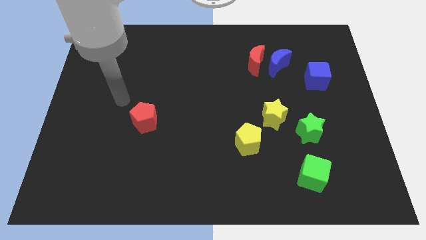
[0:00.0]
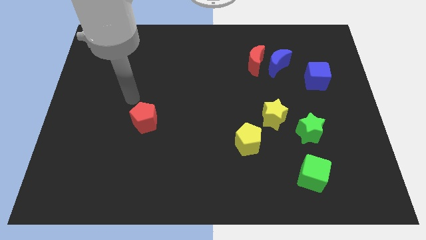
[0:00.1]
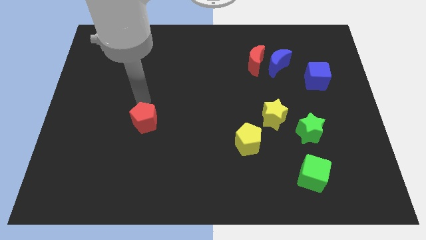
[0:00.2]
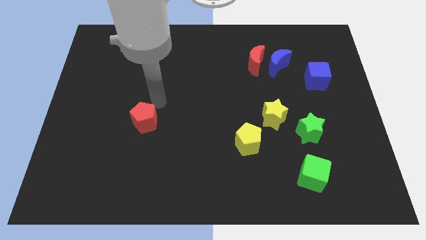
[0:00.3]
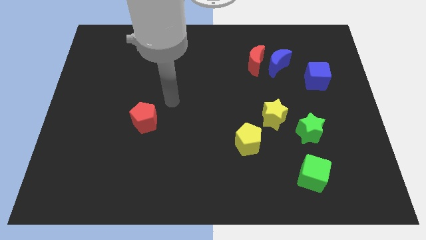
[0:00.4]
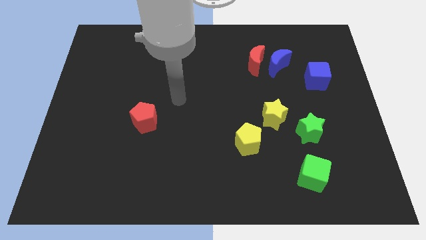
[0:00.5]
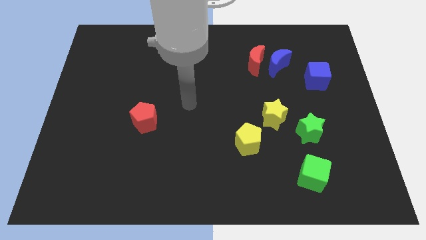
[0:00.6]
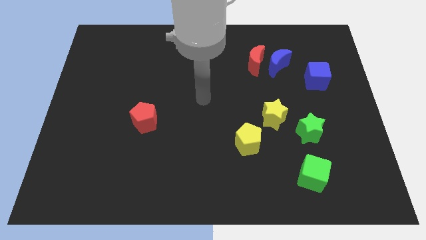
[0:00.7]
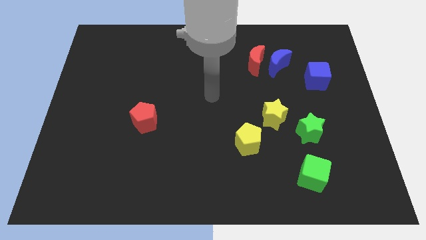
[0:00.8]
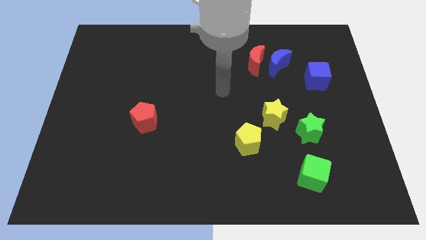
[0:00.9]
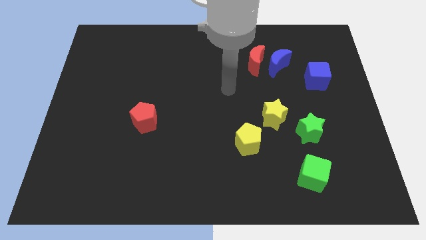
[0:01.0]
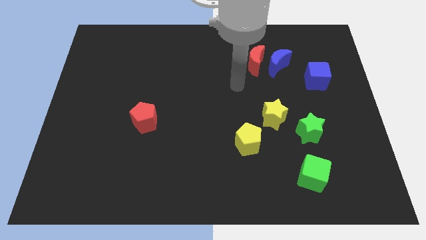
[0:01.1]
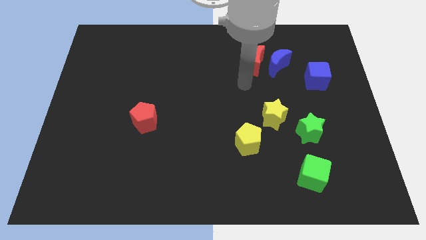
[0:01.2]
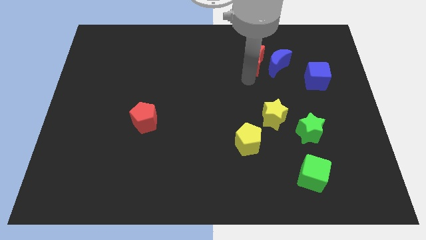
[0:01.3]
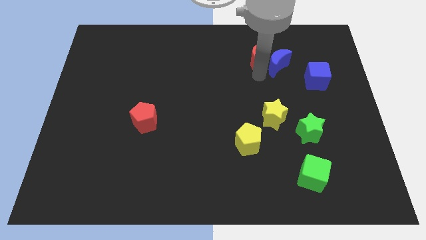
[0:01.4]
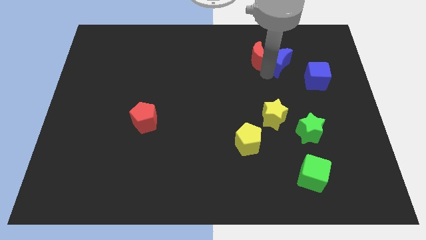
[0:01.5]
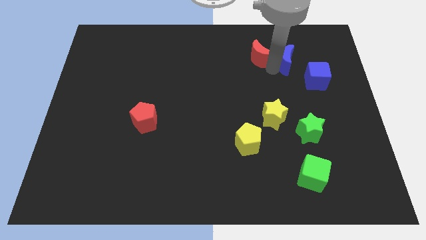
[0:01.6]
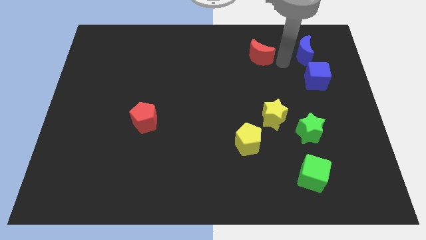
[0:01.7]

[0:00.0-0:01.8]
move the red moon away from the blue moon

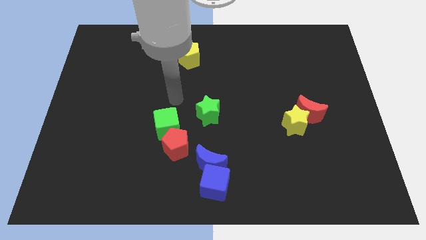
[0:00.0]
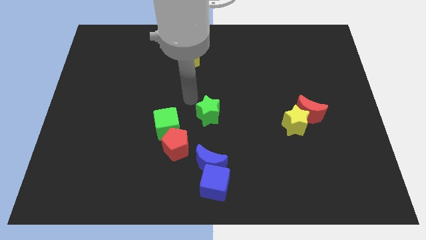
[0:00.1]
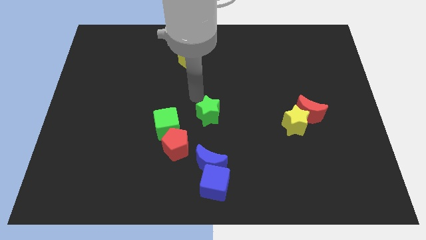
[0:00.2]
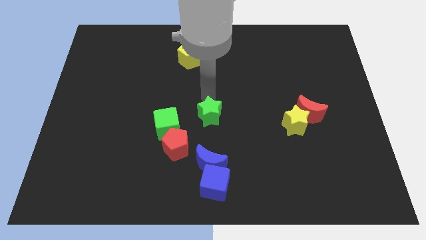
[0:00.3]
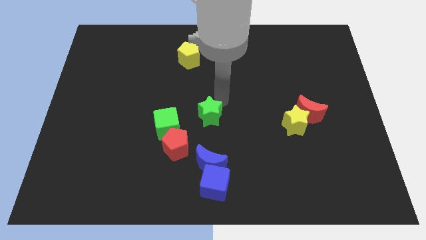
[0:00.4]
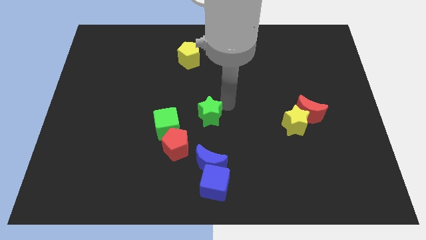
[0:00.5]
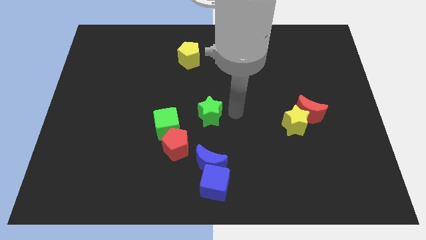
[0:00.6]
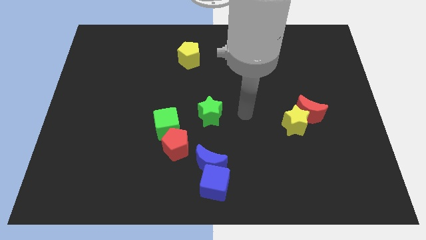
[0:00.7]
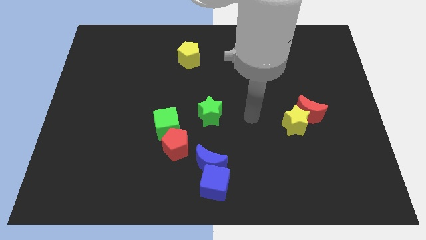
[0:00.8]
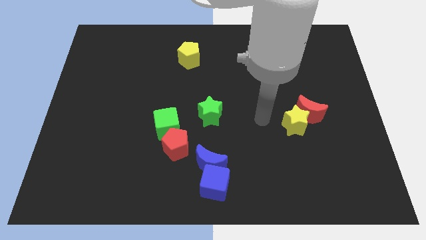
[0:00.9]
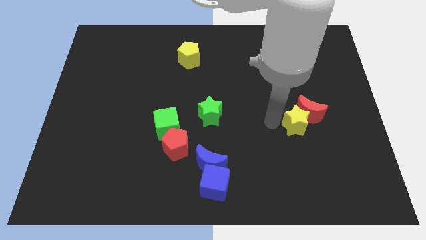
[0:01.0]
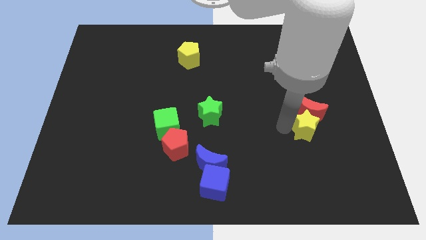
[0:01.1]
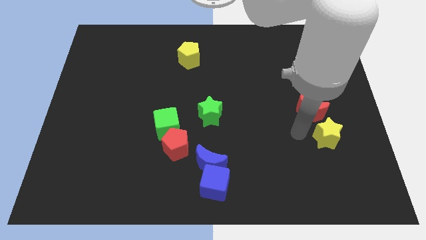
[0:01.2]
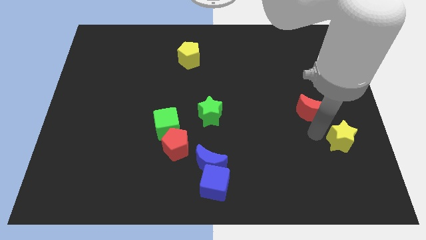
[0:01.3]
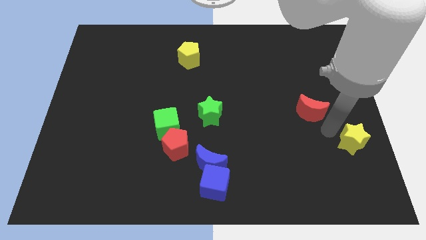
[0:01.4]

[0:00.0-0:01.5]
separate the red moon from the yellow star

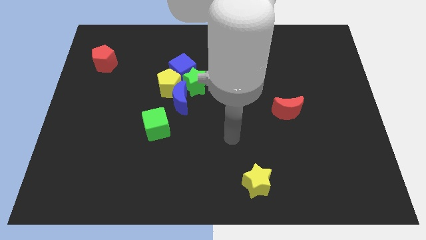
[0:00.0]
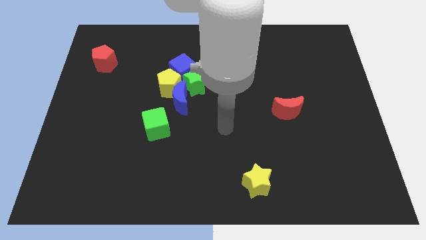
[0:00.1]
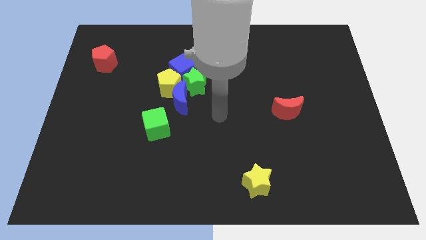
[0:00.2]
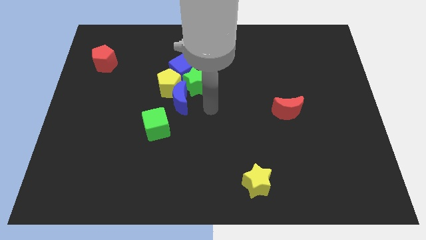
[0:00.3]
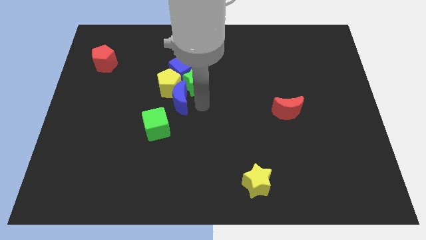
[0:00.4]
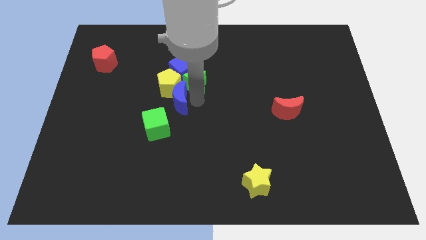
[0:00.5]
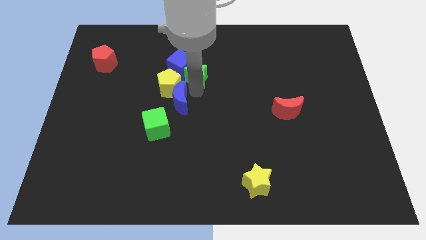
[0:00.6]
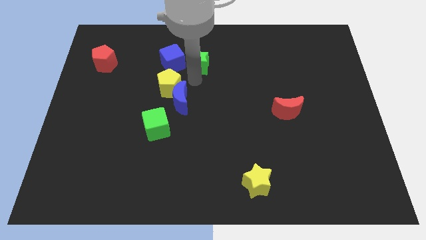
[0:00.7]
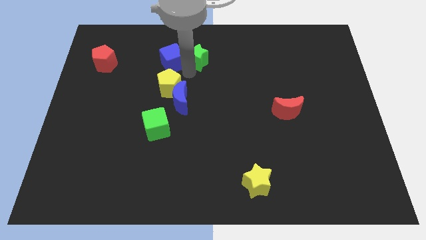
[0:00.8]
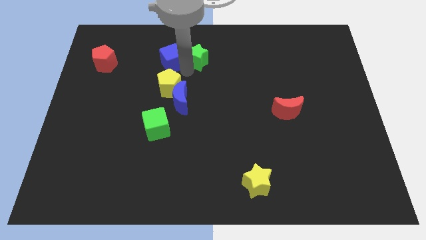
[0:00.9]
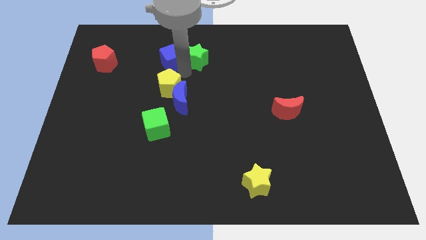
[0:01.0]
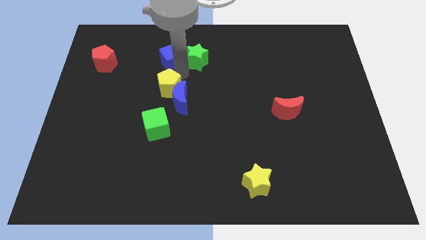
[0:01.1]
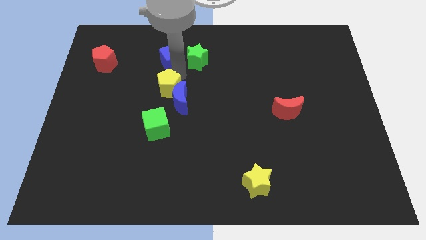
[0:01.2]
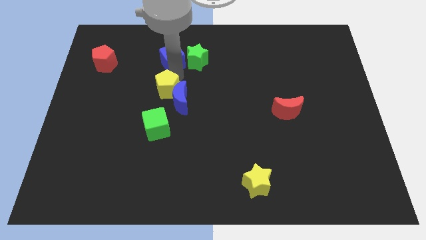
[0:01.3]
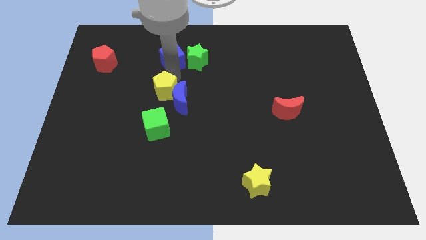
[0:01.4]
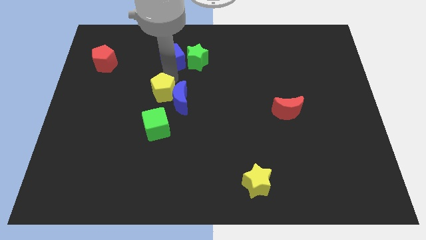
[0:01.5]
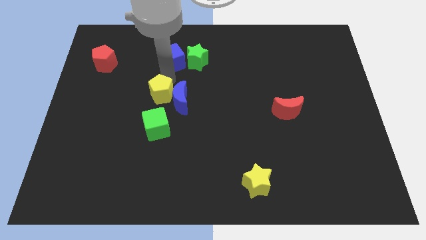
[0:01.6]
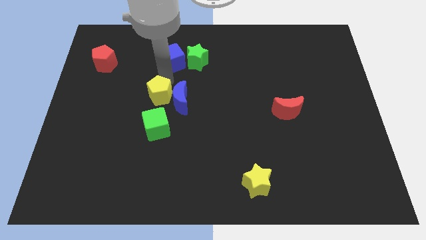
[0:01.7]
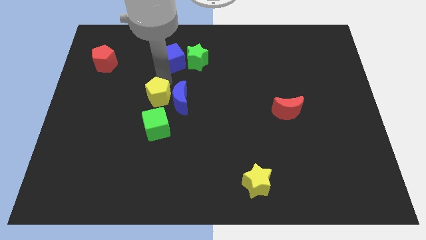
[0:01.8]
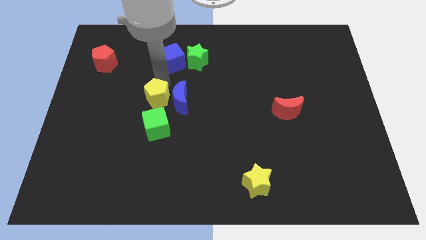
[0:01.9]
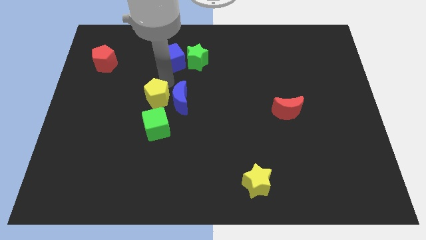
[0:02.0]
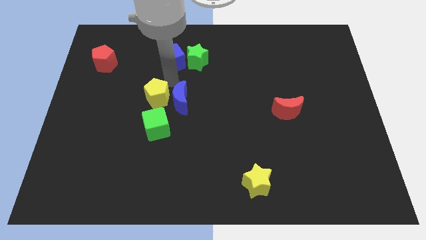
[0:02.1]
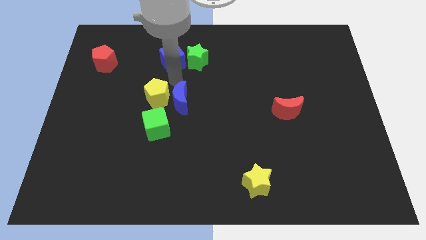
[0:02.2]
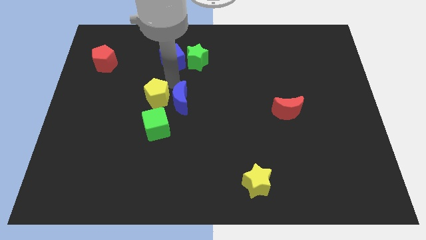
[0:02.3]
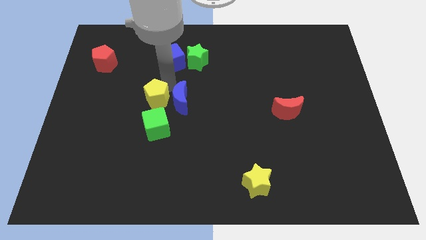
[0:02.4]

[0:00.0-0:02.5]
separate the yellow pentagon from the blue moon, blue cube, and green star

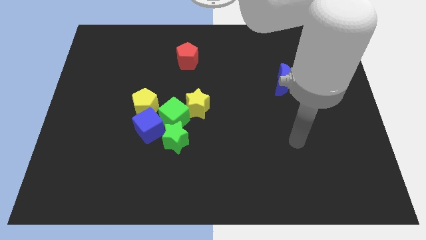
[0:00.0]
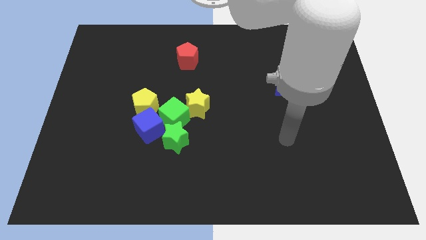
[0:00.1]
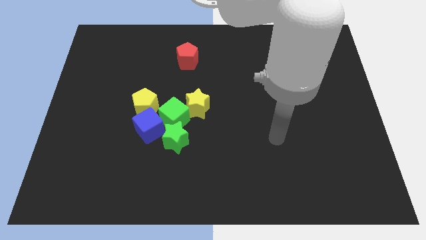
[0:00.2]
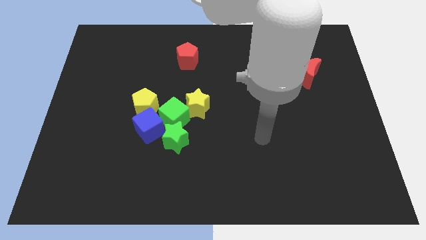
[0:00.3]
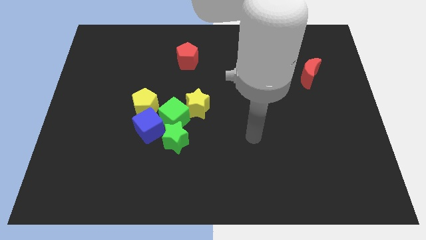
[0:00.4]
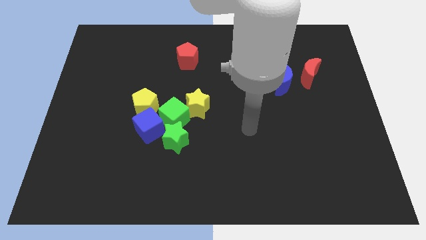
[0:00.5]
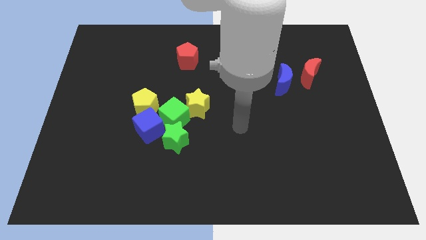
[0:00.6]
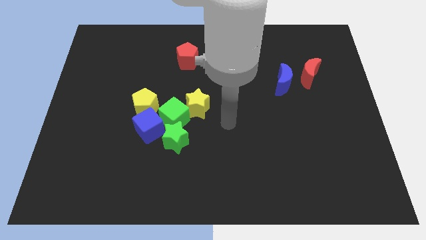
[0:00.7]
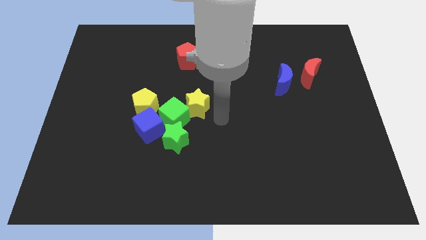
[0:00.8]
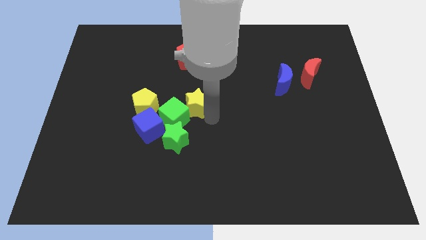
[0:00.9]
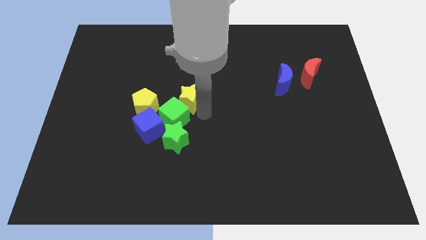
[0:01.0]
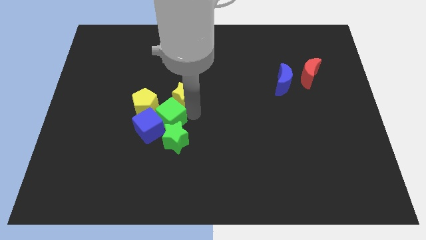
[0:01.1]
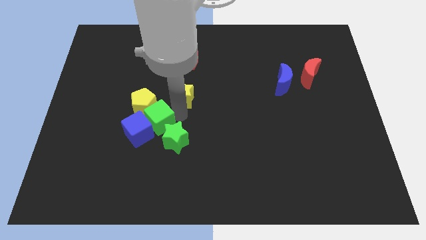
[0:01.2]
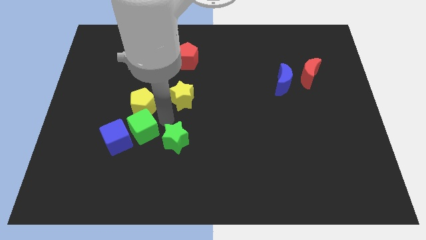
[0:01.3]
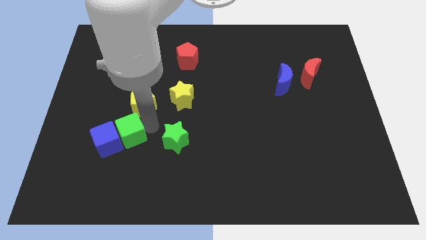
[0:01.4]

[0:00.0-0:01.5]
separate the blue cube from the green cube, yellow pentagon, and green star

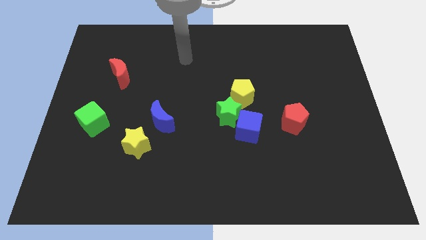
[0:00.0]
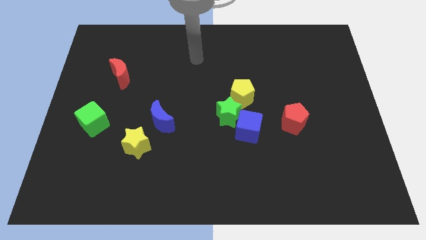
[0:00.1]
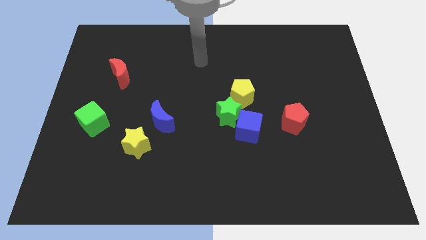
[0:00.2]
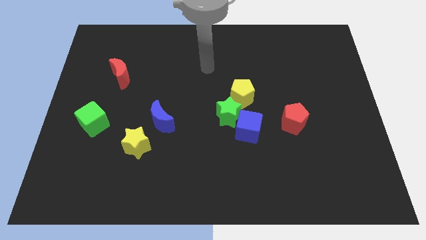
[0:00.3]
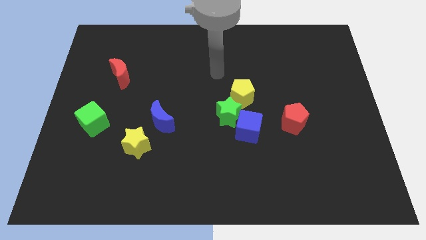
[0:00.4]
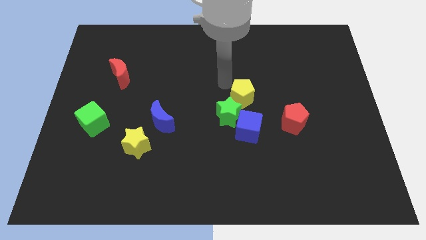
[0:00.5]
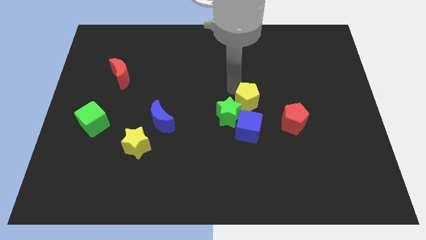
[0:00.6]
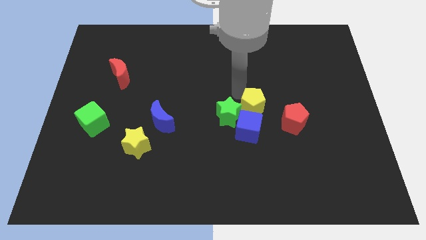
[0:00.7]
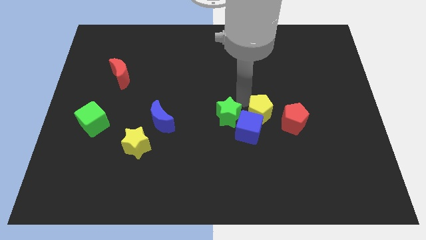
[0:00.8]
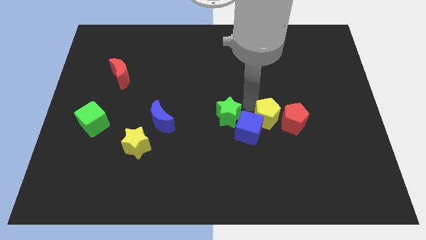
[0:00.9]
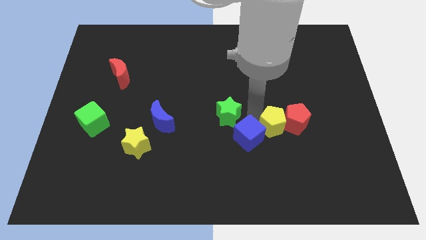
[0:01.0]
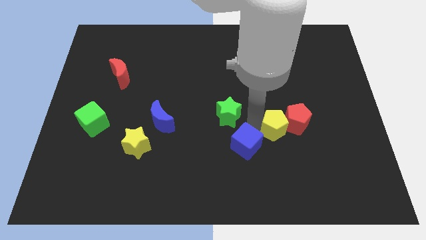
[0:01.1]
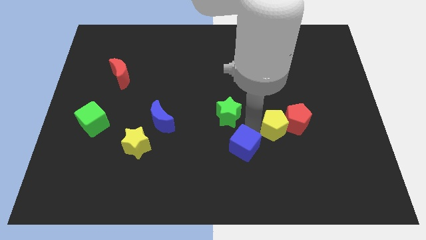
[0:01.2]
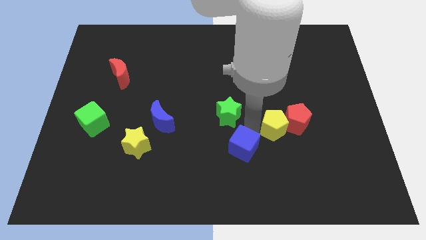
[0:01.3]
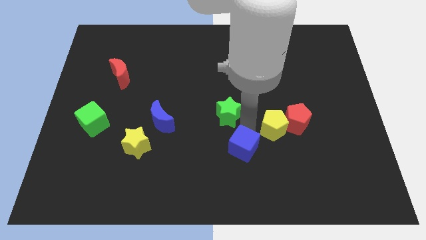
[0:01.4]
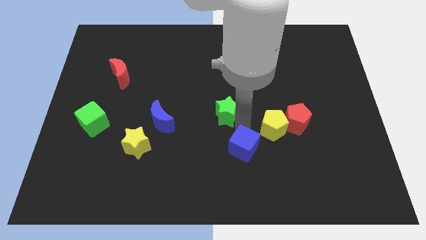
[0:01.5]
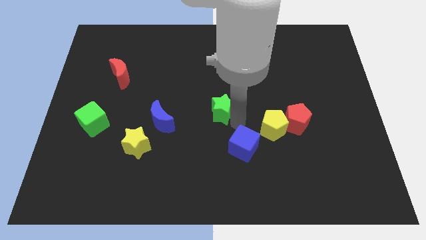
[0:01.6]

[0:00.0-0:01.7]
pull the green star apart from the blue cube and yellow pentagon

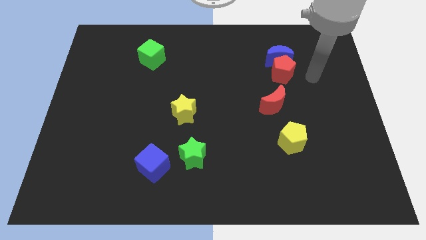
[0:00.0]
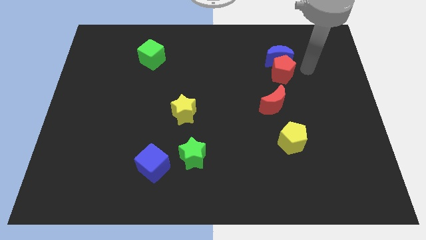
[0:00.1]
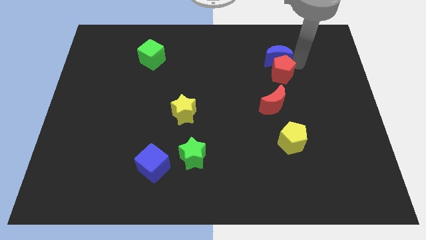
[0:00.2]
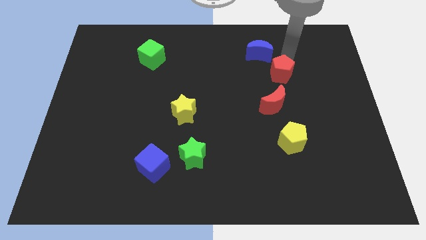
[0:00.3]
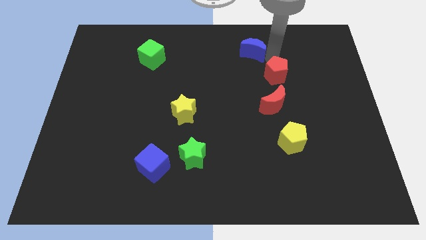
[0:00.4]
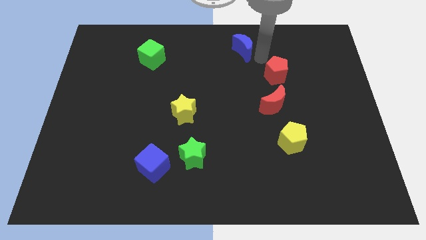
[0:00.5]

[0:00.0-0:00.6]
separate the red pentagon from the blue moon
